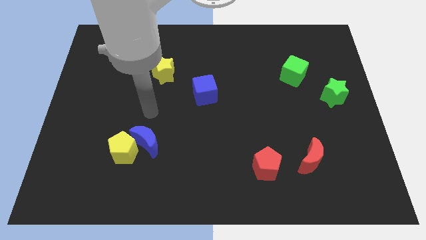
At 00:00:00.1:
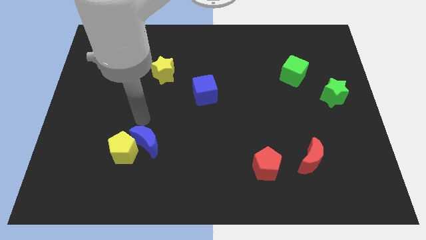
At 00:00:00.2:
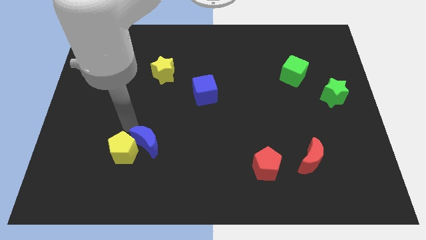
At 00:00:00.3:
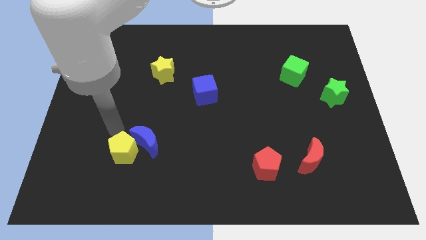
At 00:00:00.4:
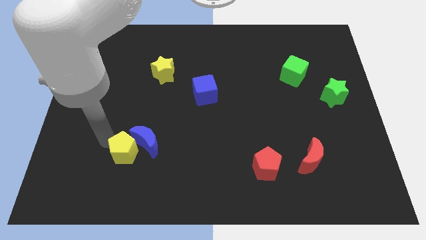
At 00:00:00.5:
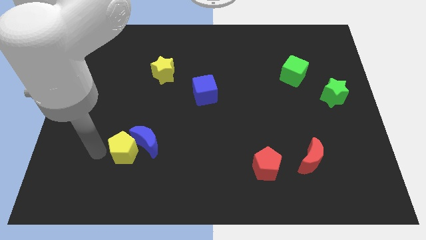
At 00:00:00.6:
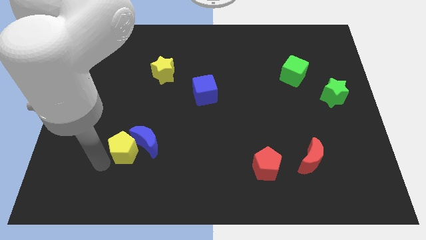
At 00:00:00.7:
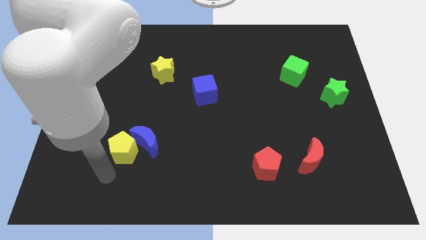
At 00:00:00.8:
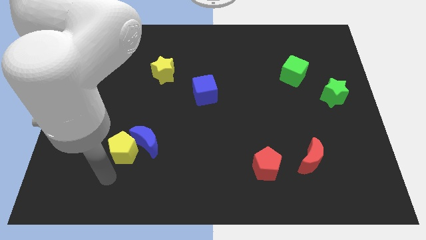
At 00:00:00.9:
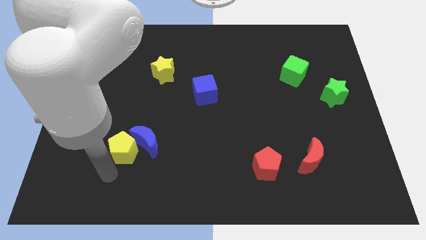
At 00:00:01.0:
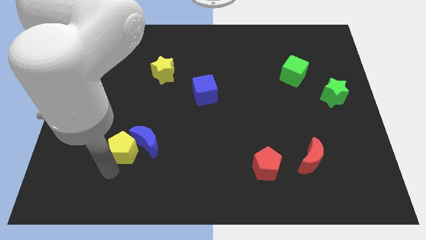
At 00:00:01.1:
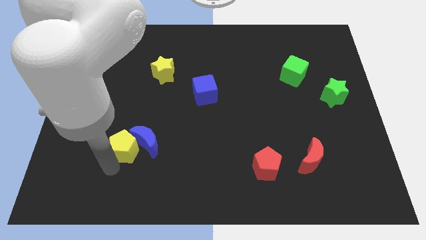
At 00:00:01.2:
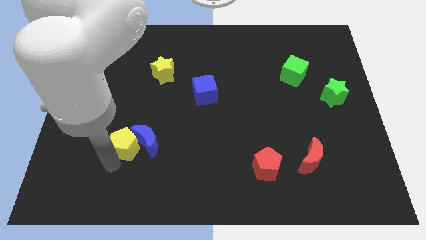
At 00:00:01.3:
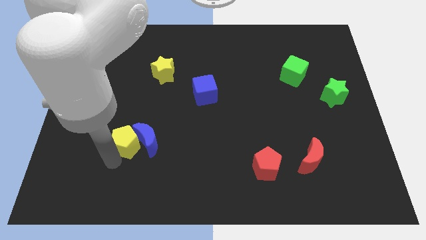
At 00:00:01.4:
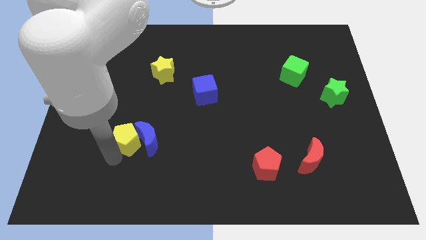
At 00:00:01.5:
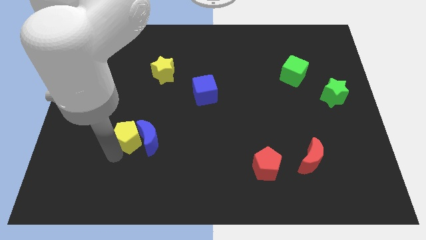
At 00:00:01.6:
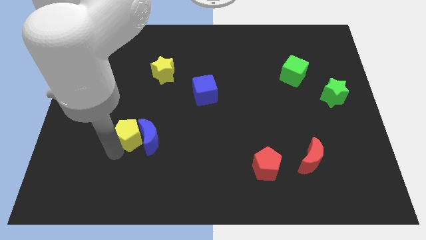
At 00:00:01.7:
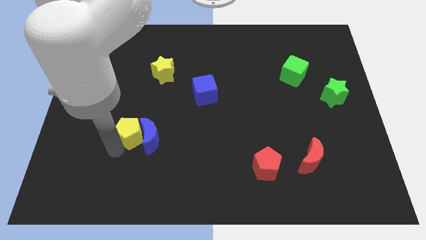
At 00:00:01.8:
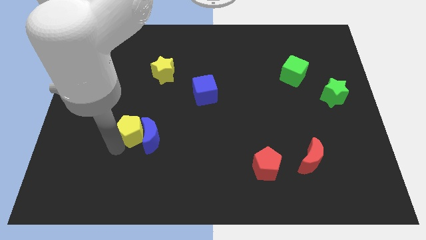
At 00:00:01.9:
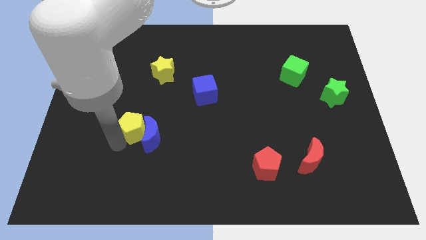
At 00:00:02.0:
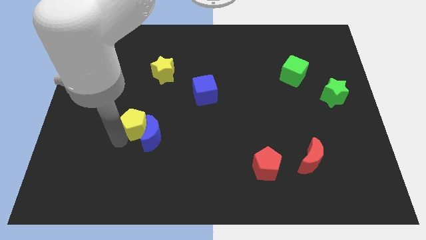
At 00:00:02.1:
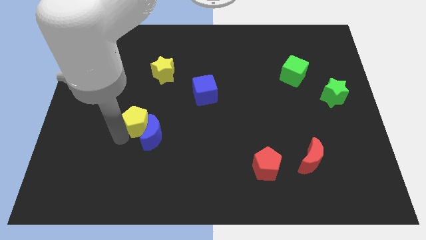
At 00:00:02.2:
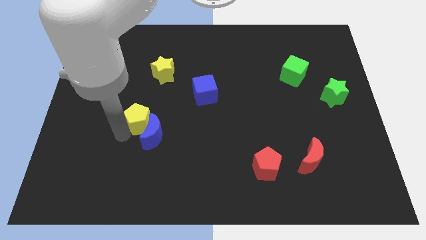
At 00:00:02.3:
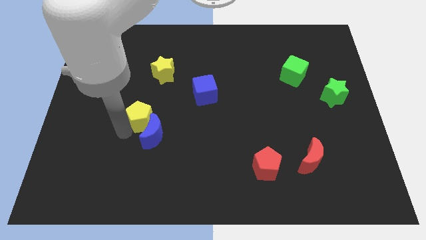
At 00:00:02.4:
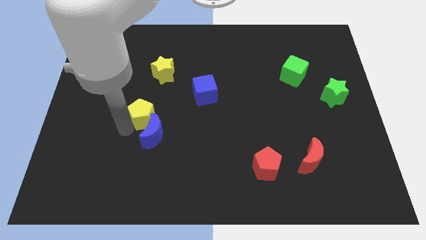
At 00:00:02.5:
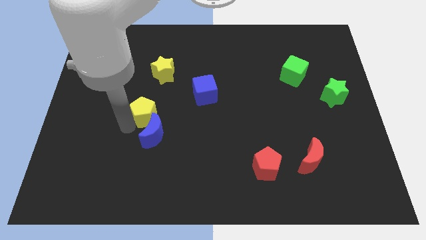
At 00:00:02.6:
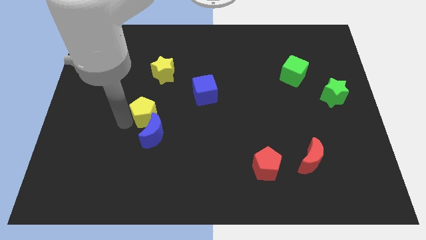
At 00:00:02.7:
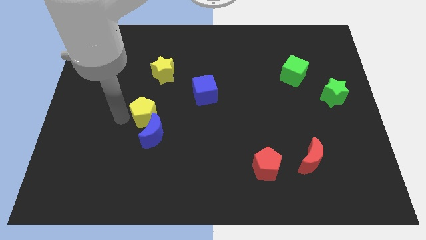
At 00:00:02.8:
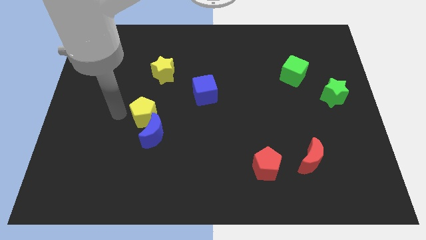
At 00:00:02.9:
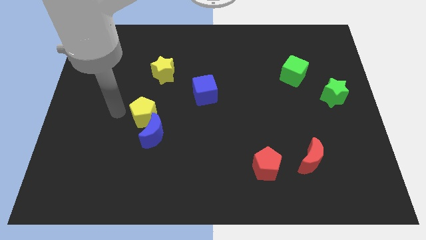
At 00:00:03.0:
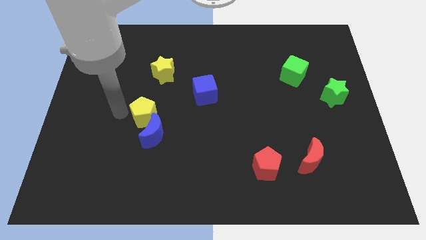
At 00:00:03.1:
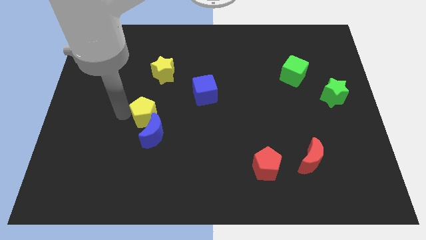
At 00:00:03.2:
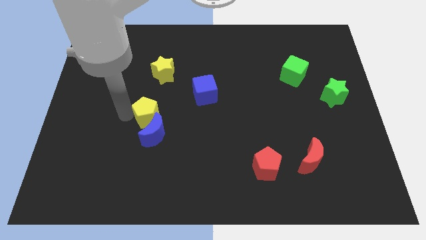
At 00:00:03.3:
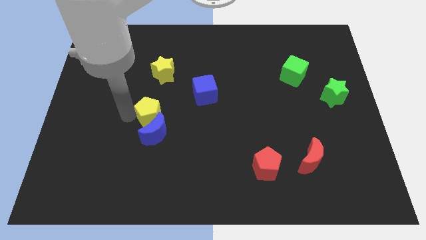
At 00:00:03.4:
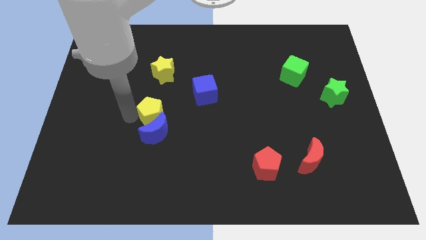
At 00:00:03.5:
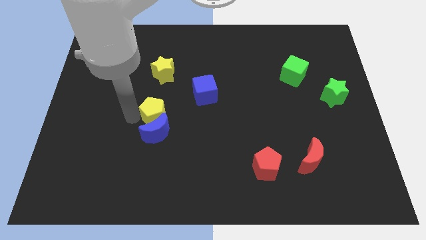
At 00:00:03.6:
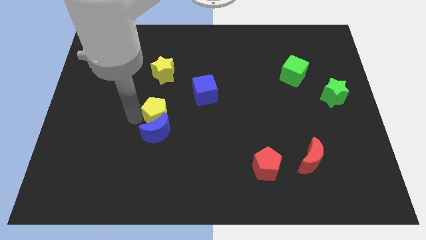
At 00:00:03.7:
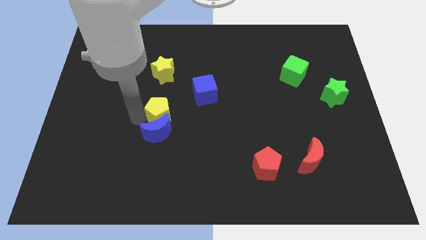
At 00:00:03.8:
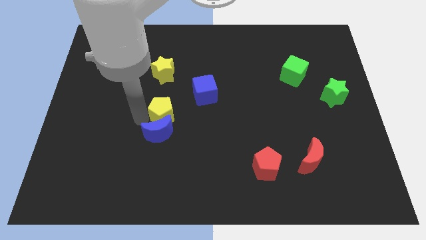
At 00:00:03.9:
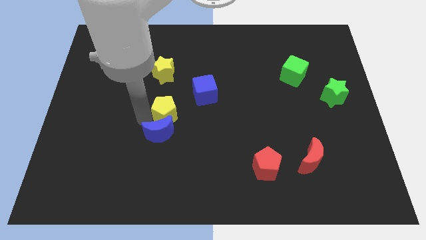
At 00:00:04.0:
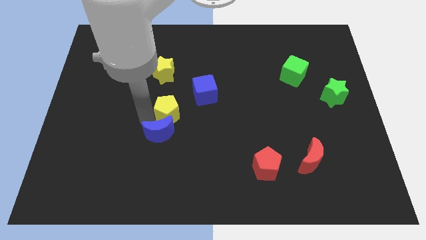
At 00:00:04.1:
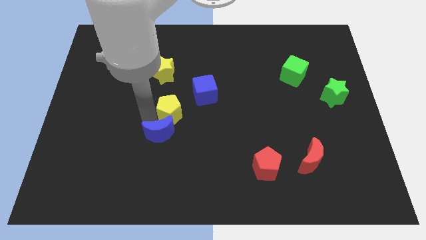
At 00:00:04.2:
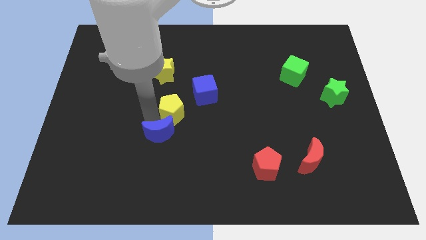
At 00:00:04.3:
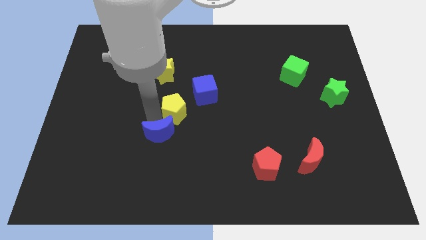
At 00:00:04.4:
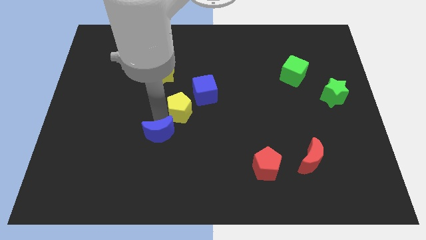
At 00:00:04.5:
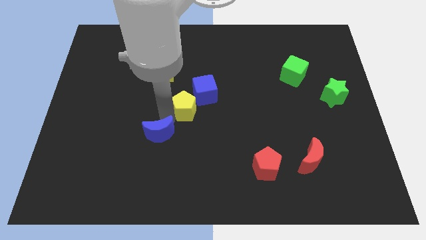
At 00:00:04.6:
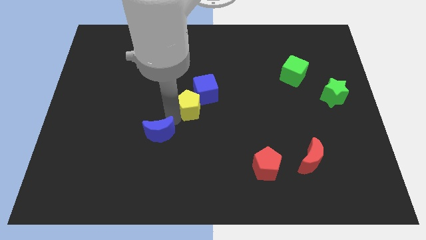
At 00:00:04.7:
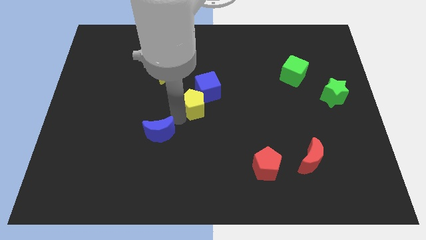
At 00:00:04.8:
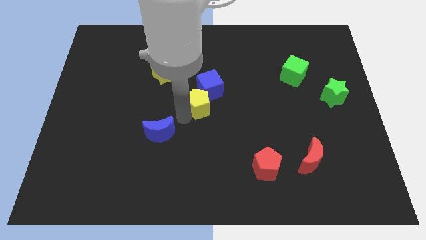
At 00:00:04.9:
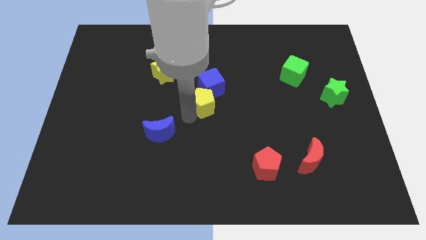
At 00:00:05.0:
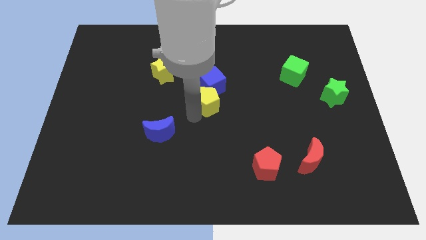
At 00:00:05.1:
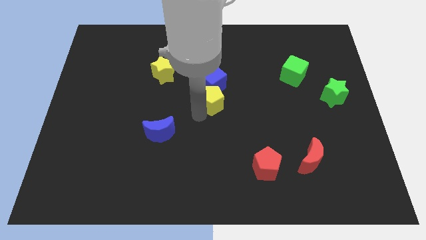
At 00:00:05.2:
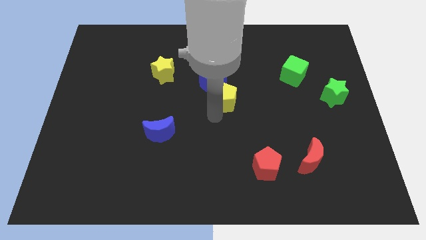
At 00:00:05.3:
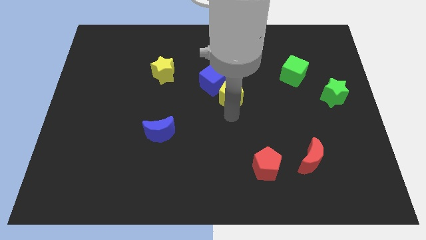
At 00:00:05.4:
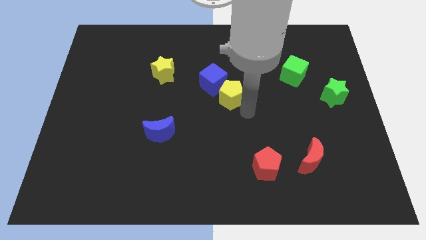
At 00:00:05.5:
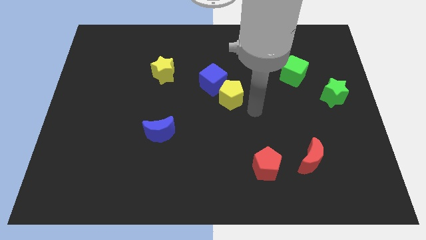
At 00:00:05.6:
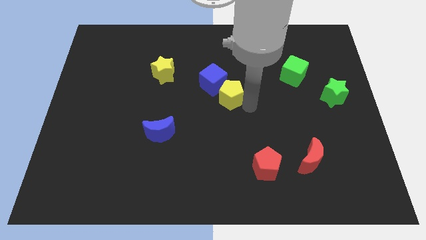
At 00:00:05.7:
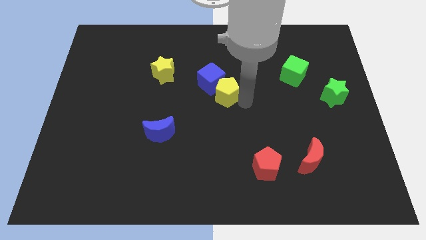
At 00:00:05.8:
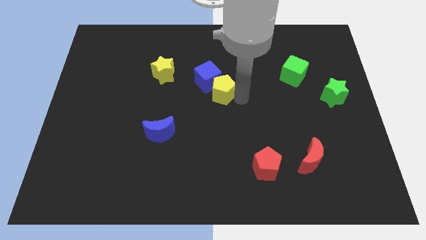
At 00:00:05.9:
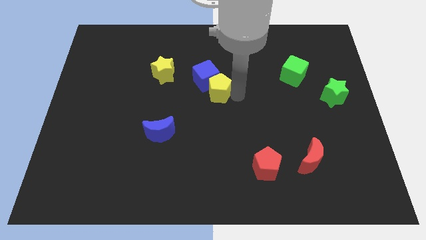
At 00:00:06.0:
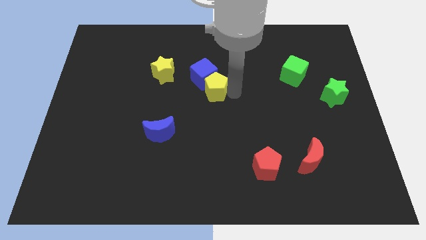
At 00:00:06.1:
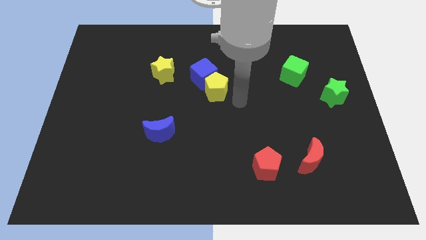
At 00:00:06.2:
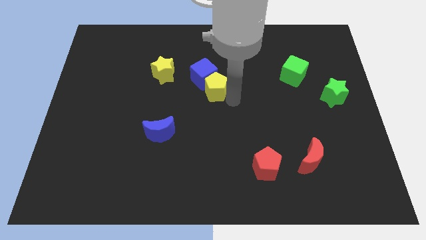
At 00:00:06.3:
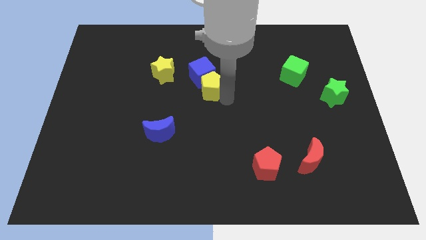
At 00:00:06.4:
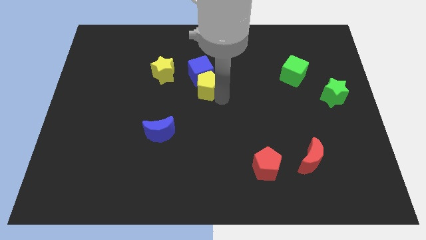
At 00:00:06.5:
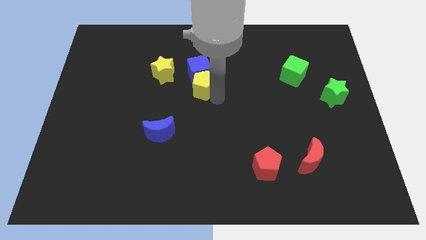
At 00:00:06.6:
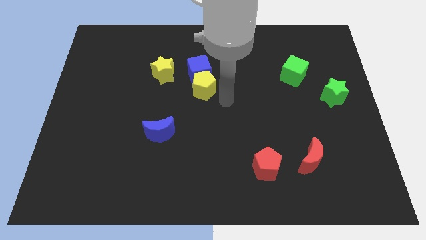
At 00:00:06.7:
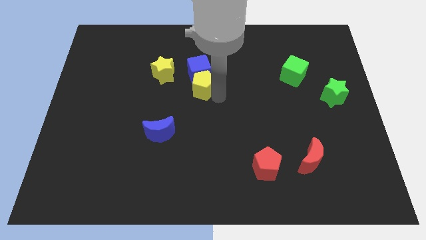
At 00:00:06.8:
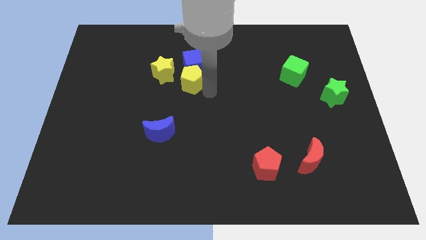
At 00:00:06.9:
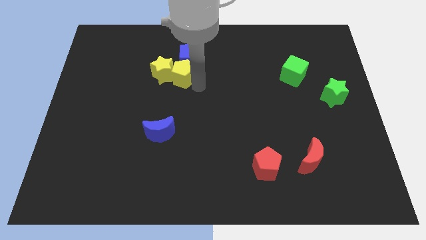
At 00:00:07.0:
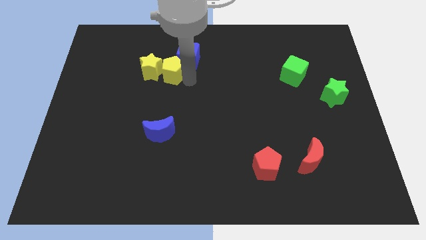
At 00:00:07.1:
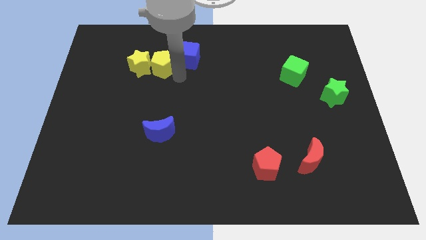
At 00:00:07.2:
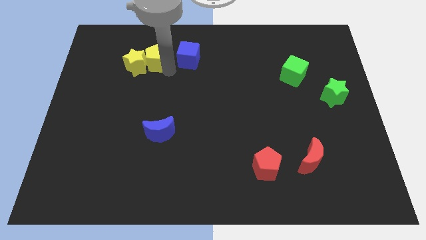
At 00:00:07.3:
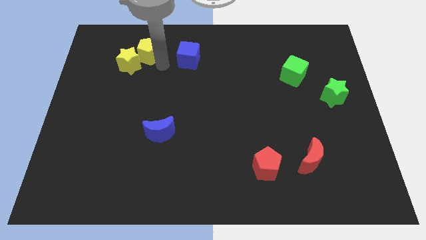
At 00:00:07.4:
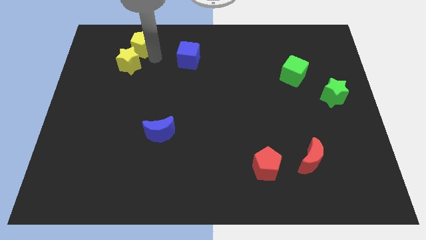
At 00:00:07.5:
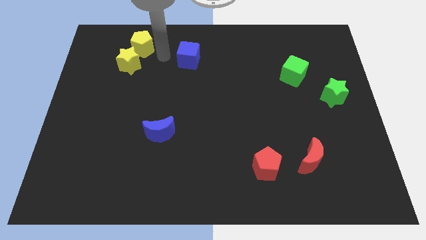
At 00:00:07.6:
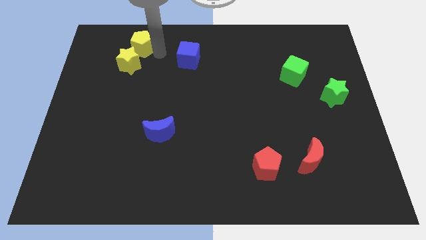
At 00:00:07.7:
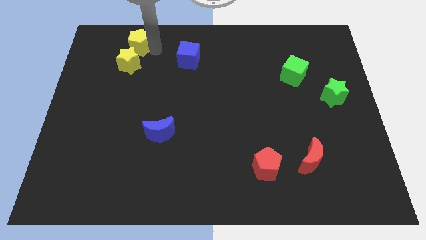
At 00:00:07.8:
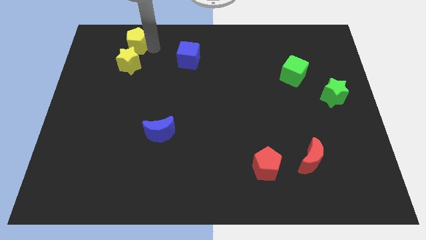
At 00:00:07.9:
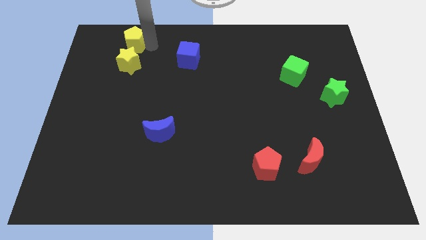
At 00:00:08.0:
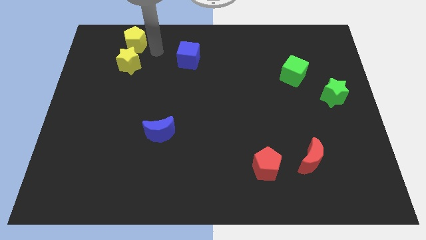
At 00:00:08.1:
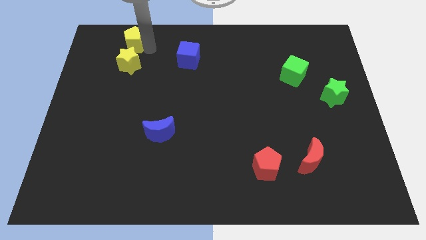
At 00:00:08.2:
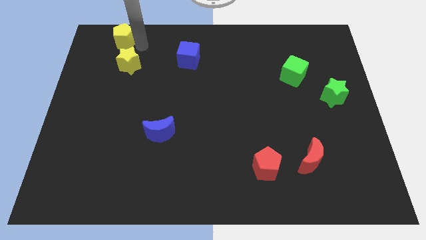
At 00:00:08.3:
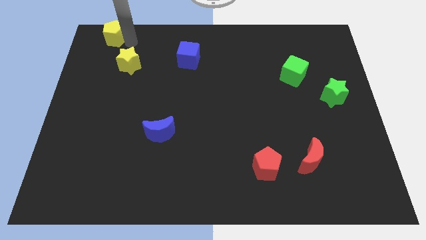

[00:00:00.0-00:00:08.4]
put the yellow pentagon to the upper left corner
